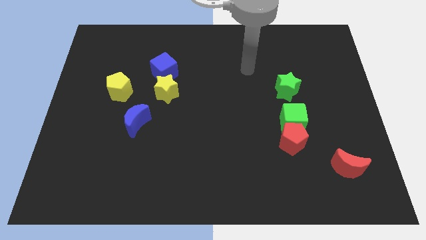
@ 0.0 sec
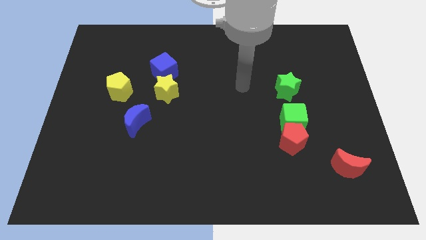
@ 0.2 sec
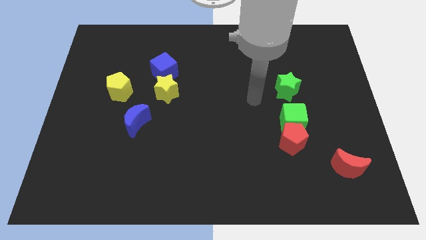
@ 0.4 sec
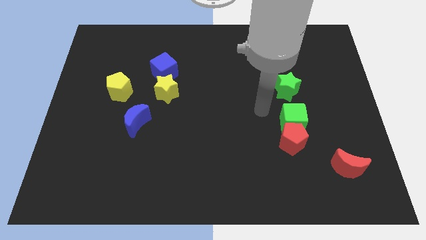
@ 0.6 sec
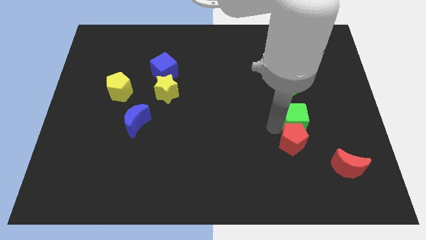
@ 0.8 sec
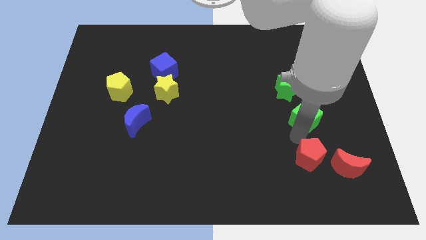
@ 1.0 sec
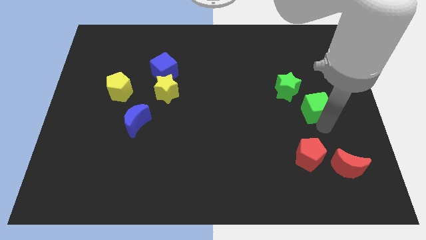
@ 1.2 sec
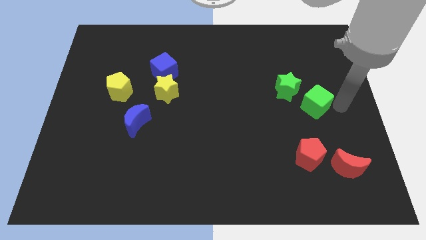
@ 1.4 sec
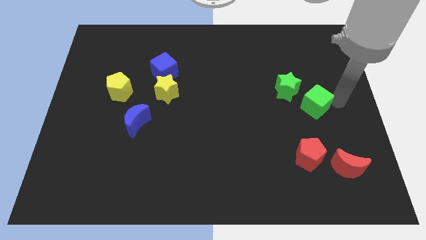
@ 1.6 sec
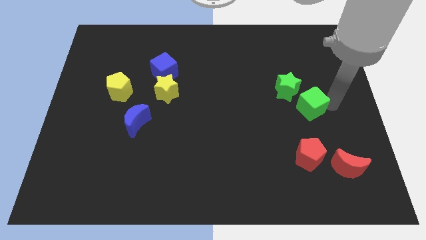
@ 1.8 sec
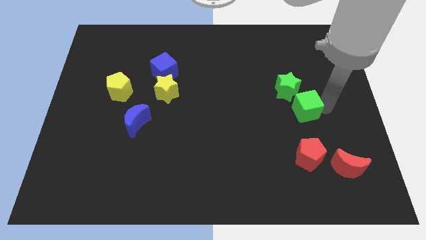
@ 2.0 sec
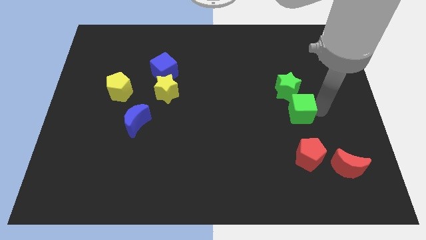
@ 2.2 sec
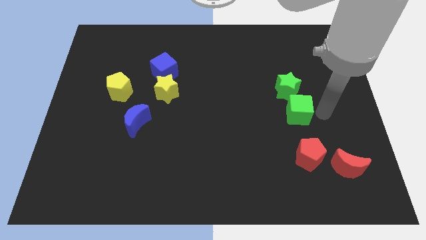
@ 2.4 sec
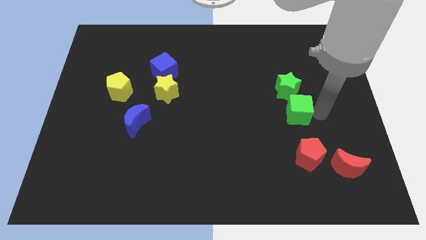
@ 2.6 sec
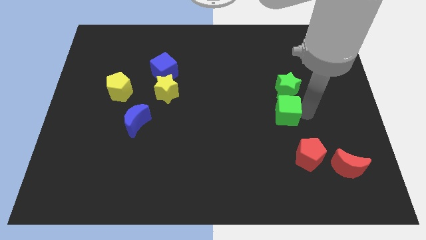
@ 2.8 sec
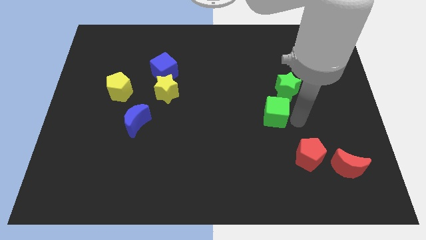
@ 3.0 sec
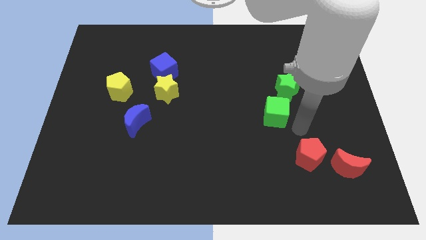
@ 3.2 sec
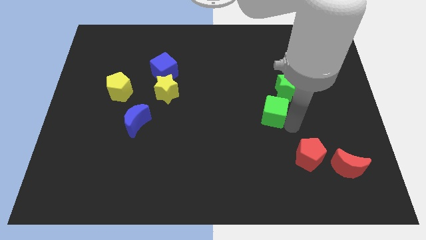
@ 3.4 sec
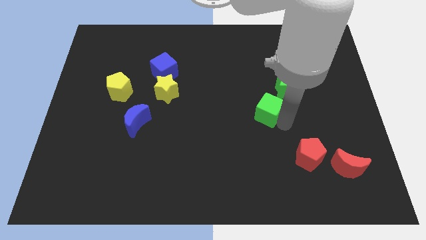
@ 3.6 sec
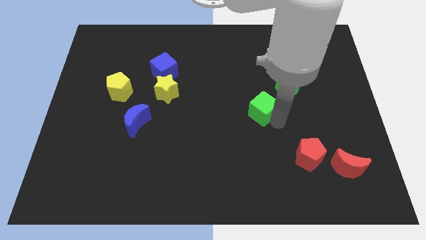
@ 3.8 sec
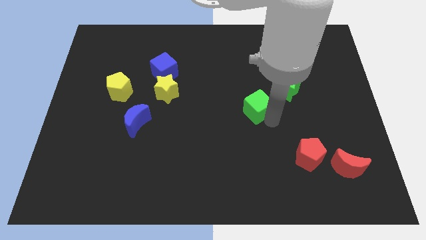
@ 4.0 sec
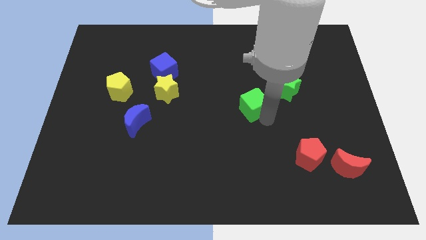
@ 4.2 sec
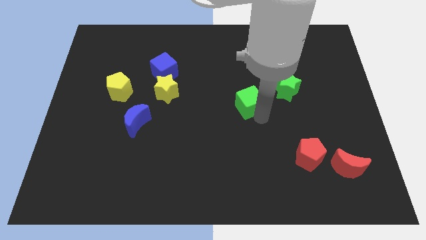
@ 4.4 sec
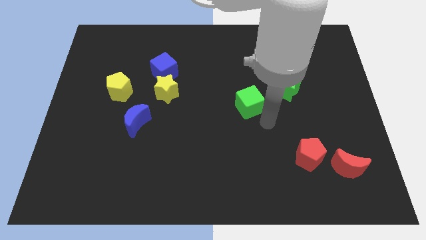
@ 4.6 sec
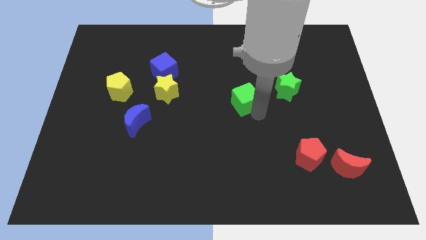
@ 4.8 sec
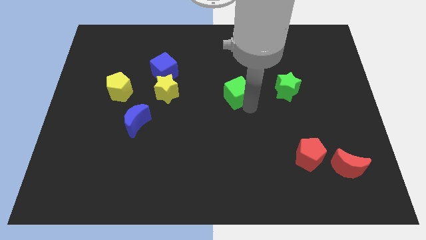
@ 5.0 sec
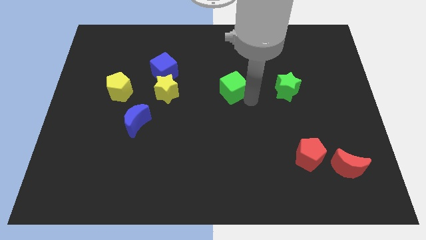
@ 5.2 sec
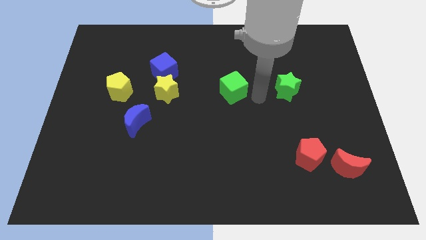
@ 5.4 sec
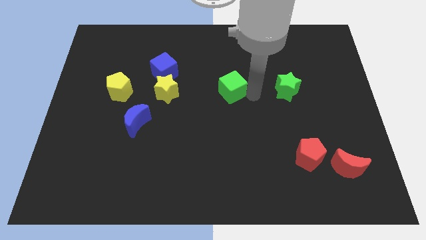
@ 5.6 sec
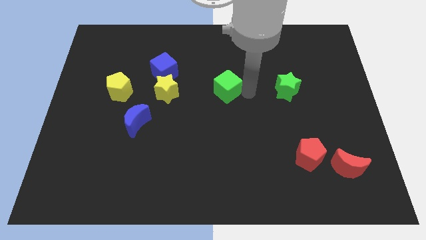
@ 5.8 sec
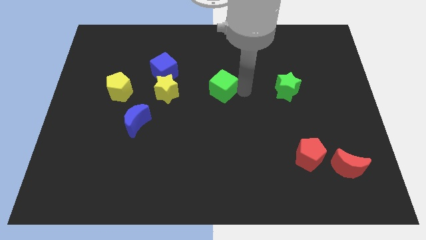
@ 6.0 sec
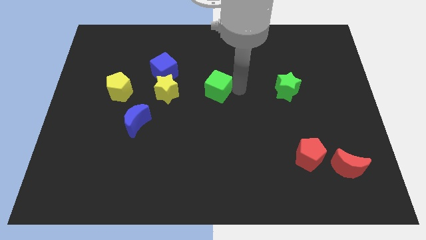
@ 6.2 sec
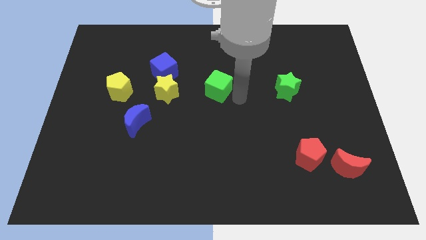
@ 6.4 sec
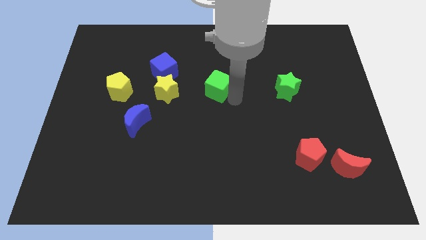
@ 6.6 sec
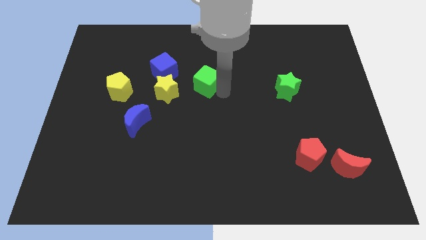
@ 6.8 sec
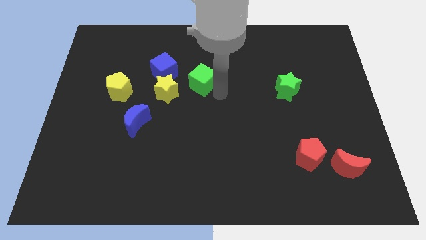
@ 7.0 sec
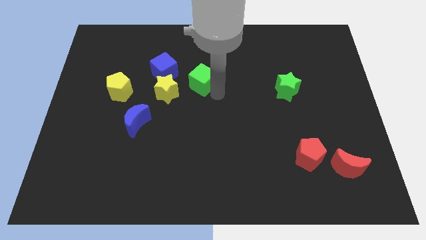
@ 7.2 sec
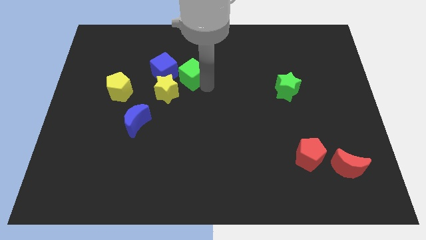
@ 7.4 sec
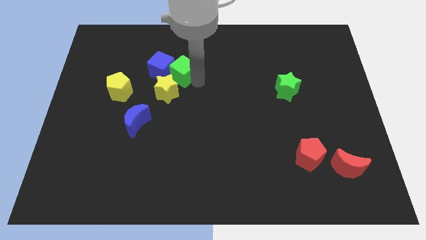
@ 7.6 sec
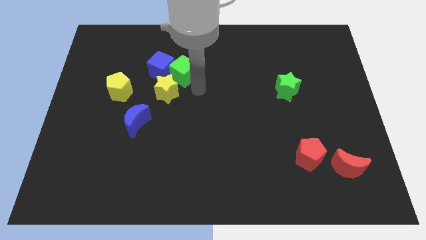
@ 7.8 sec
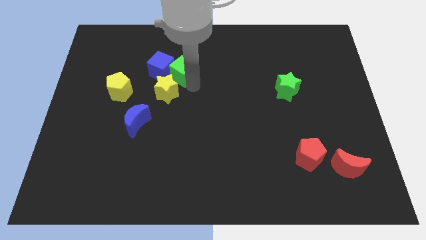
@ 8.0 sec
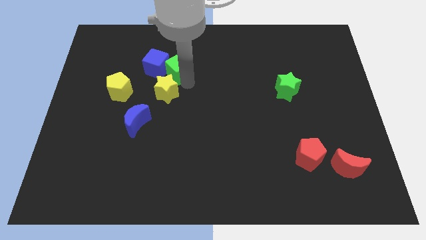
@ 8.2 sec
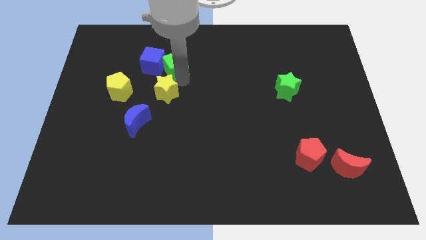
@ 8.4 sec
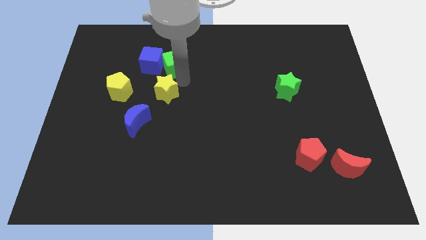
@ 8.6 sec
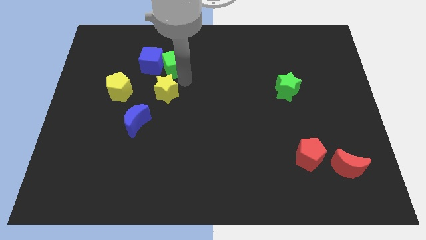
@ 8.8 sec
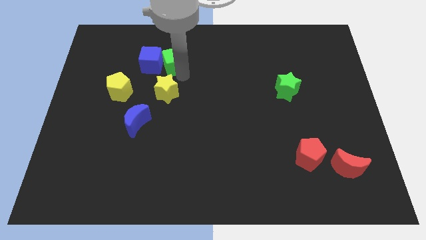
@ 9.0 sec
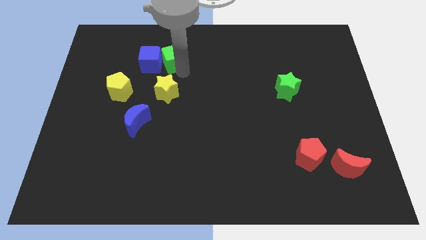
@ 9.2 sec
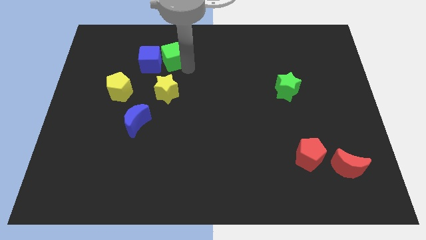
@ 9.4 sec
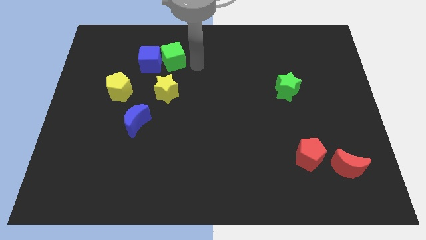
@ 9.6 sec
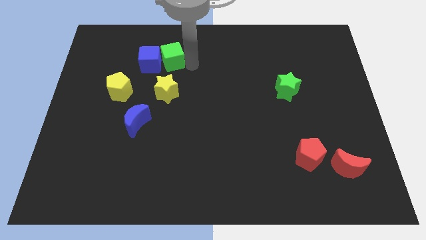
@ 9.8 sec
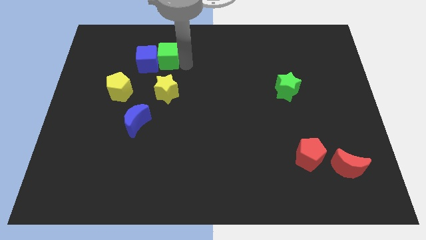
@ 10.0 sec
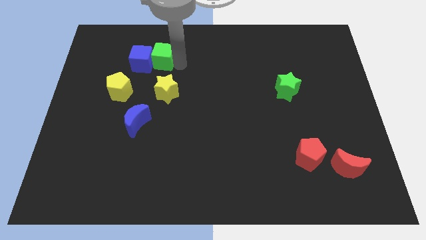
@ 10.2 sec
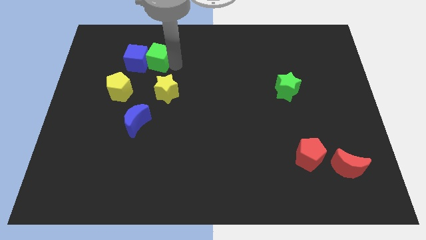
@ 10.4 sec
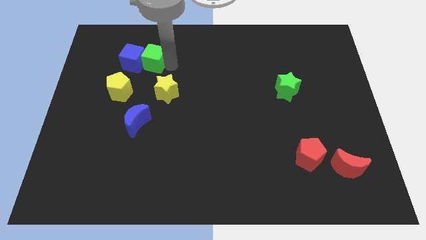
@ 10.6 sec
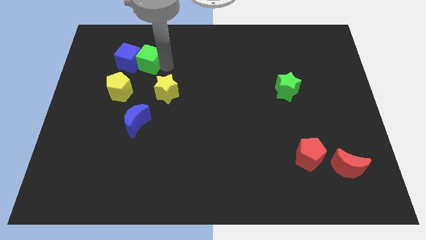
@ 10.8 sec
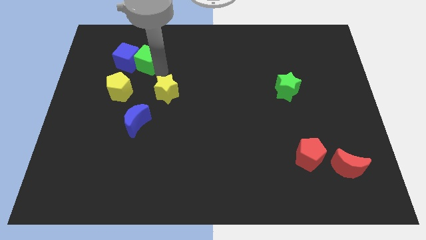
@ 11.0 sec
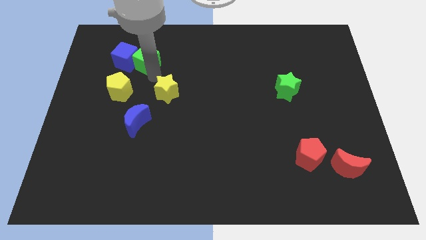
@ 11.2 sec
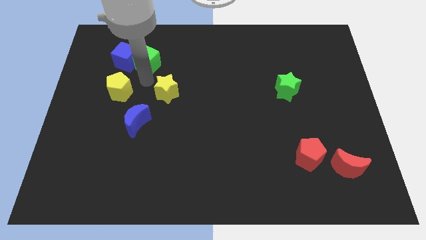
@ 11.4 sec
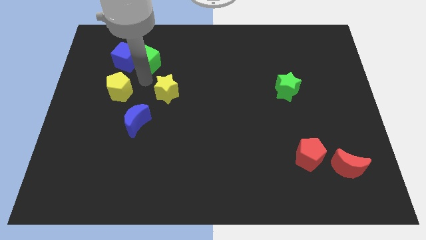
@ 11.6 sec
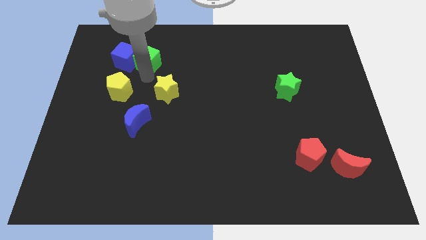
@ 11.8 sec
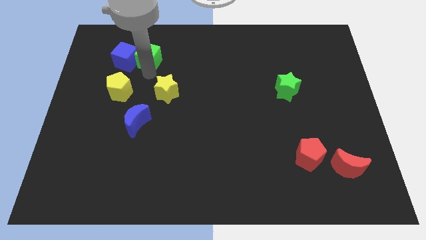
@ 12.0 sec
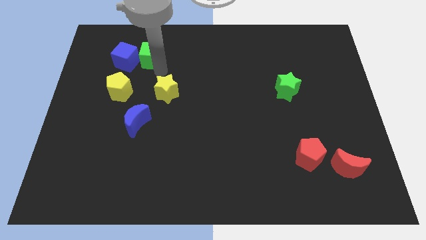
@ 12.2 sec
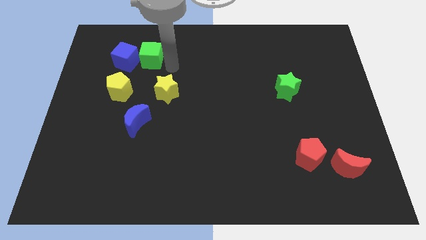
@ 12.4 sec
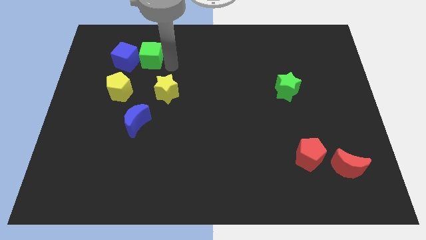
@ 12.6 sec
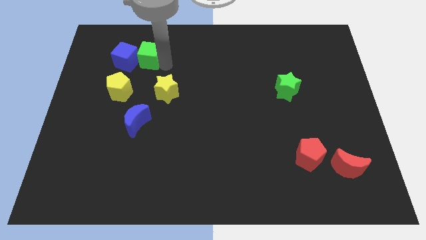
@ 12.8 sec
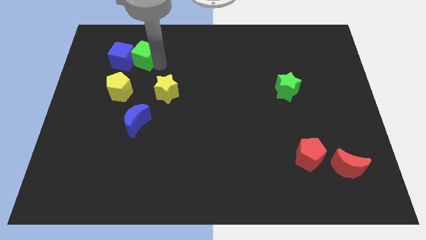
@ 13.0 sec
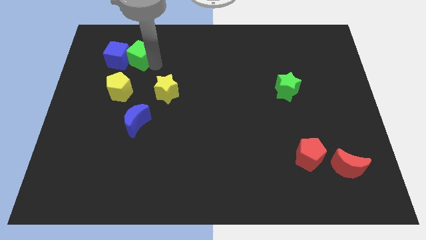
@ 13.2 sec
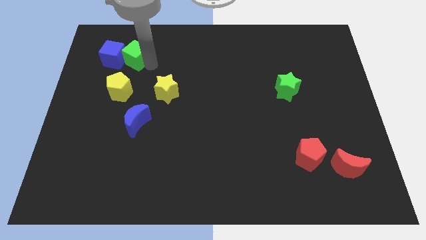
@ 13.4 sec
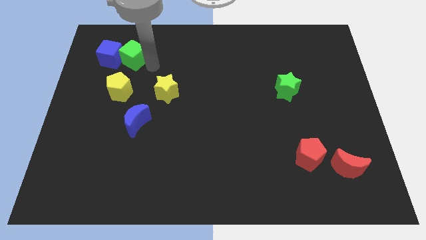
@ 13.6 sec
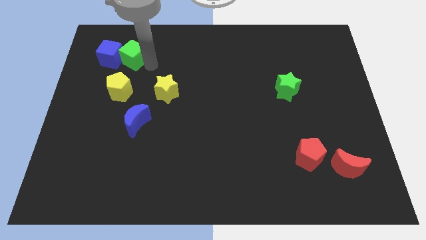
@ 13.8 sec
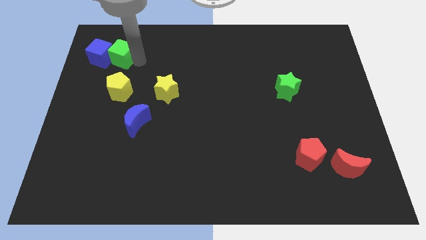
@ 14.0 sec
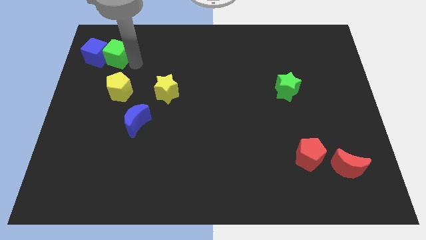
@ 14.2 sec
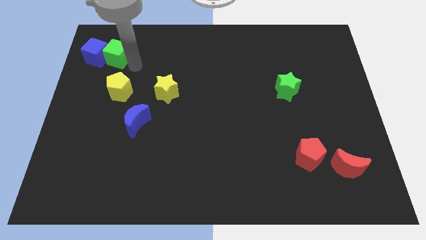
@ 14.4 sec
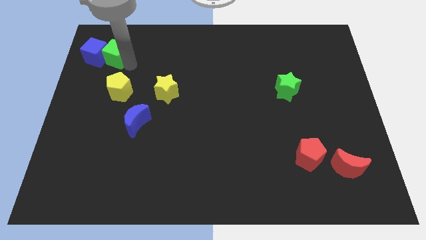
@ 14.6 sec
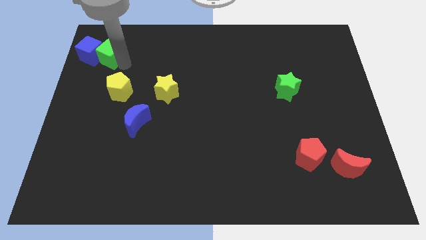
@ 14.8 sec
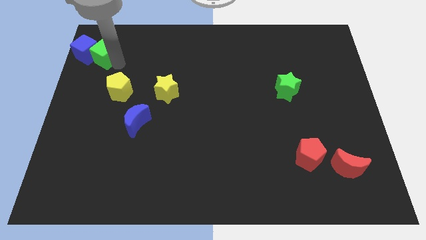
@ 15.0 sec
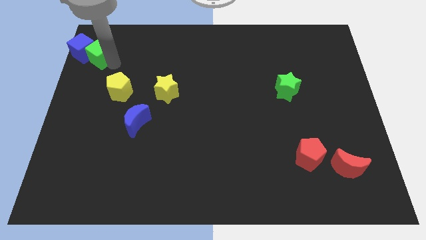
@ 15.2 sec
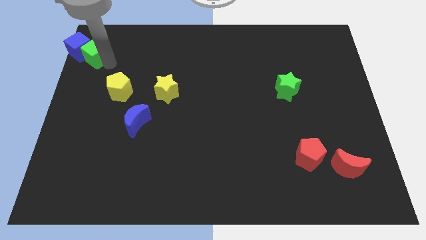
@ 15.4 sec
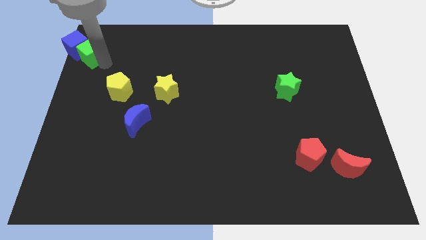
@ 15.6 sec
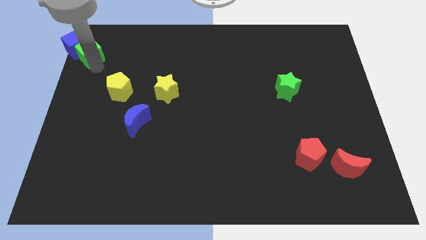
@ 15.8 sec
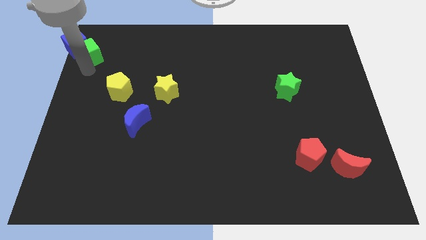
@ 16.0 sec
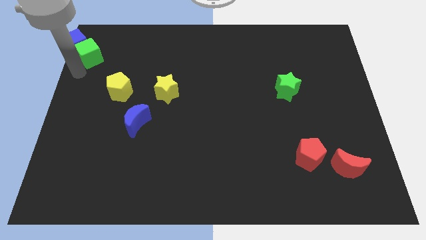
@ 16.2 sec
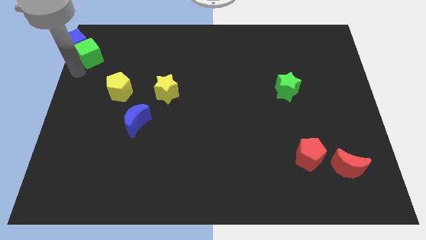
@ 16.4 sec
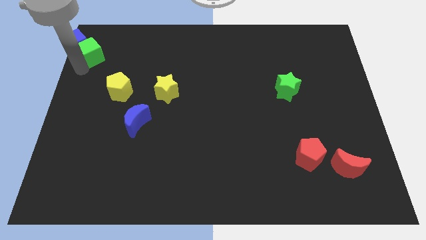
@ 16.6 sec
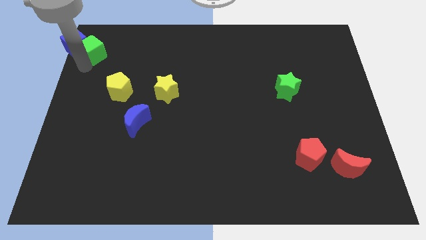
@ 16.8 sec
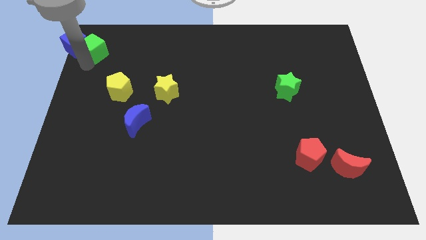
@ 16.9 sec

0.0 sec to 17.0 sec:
slide the green cube to the upper left corner

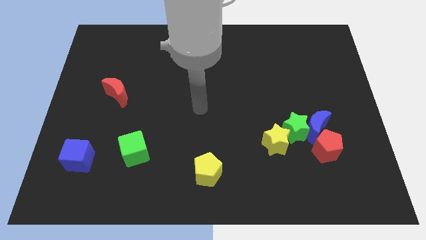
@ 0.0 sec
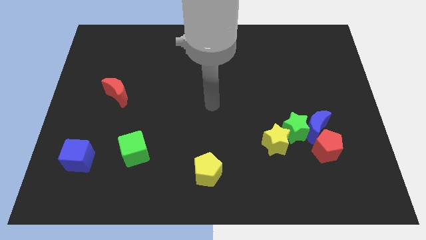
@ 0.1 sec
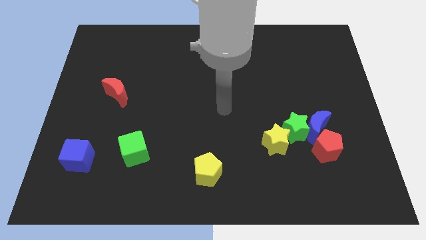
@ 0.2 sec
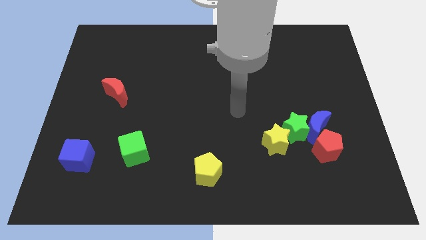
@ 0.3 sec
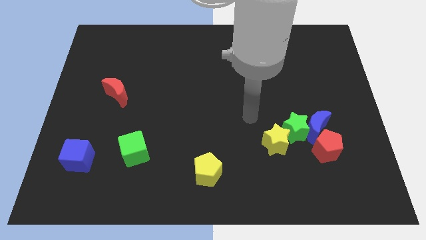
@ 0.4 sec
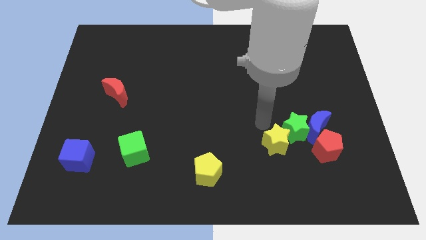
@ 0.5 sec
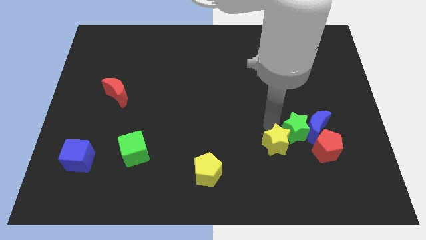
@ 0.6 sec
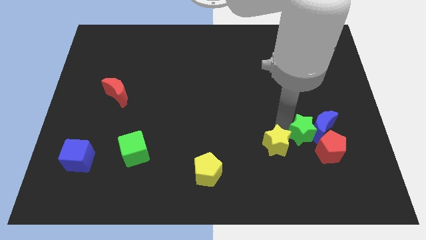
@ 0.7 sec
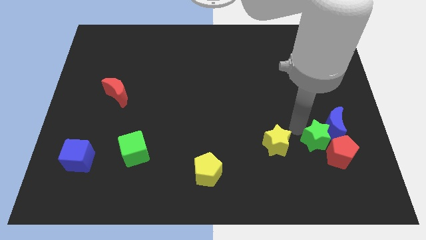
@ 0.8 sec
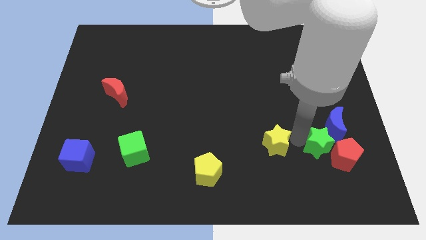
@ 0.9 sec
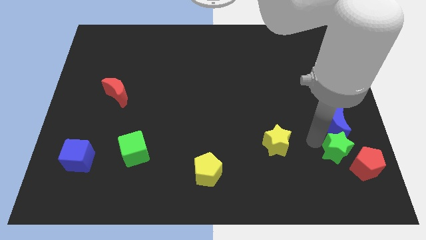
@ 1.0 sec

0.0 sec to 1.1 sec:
move the red pentagon to the lower right corner
